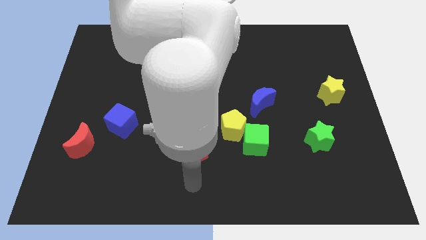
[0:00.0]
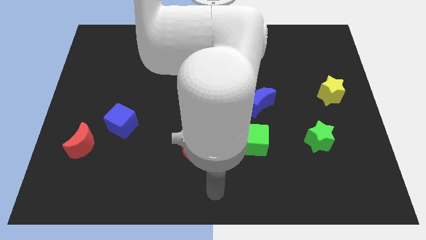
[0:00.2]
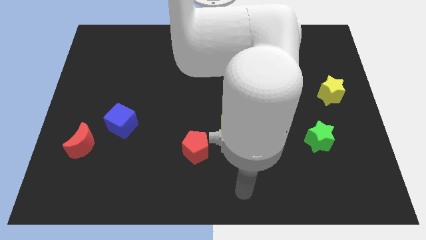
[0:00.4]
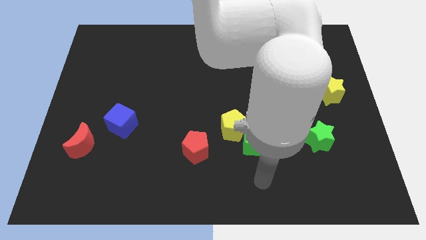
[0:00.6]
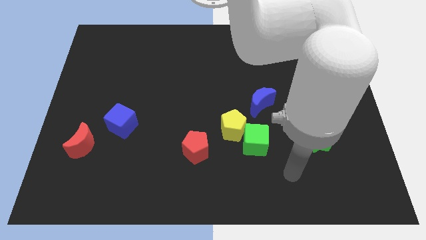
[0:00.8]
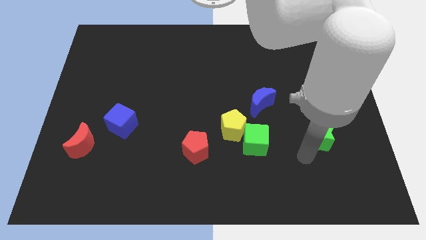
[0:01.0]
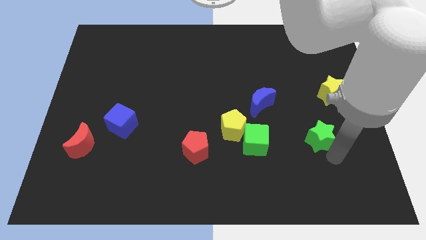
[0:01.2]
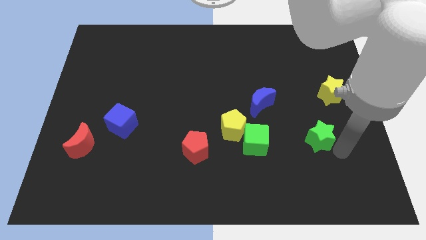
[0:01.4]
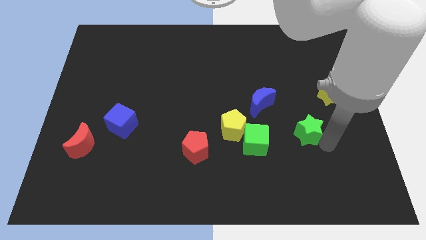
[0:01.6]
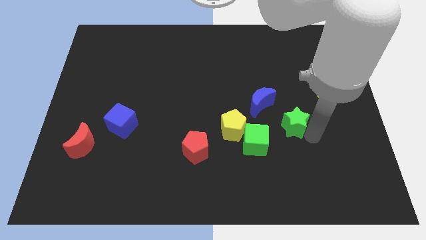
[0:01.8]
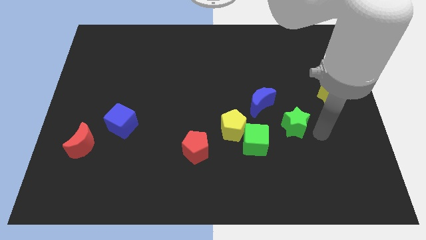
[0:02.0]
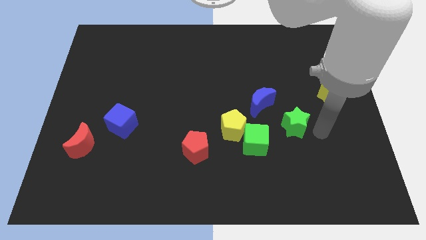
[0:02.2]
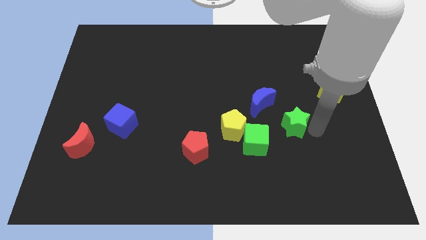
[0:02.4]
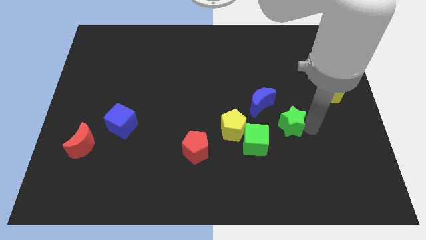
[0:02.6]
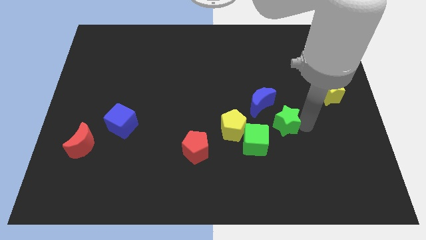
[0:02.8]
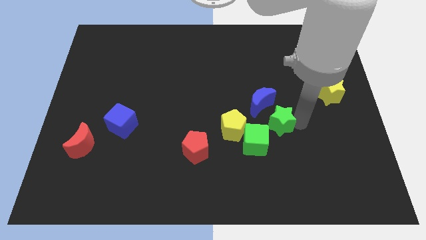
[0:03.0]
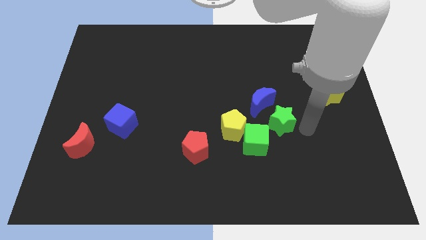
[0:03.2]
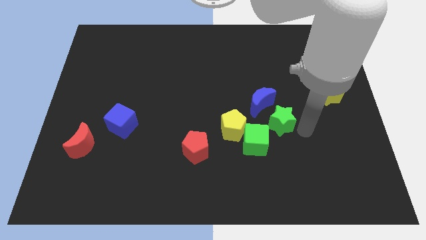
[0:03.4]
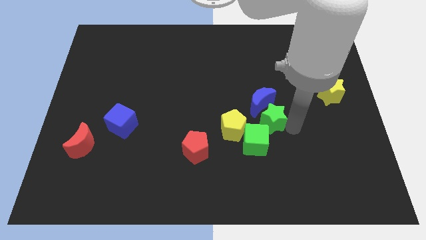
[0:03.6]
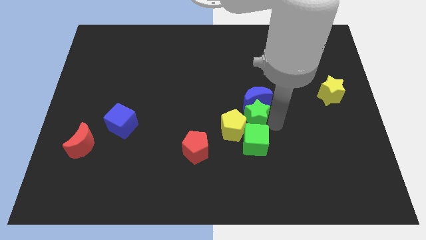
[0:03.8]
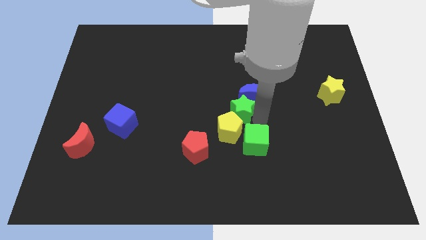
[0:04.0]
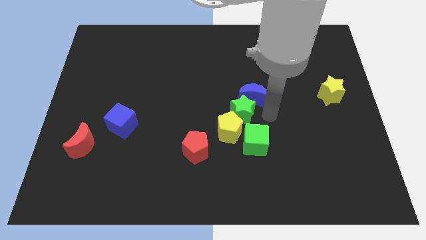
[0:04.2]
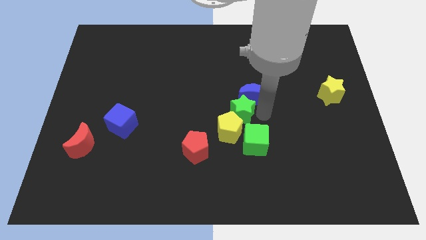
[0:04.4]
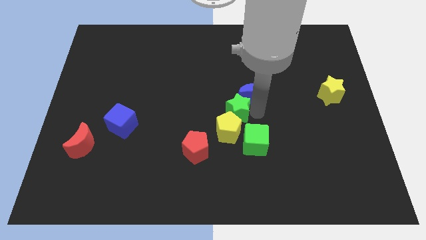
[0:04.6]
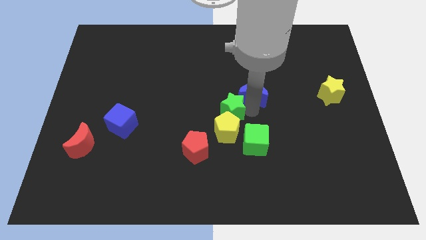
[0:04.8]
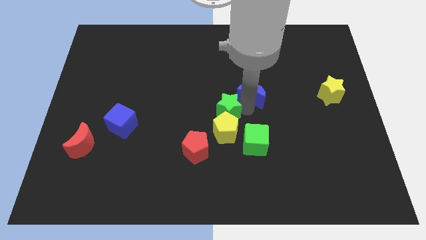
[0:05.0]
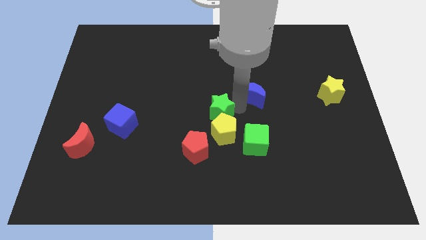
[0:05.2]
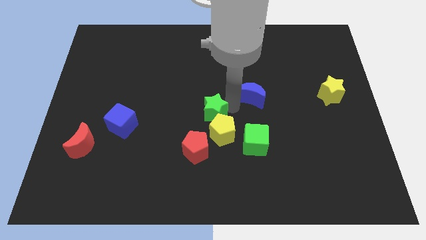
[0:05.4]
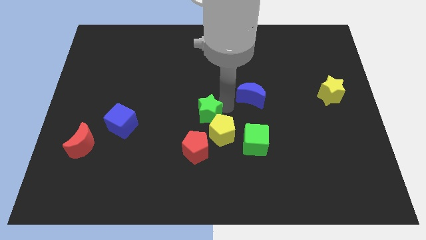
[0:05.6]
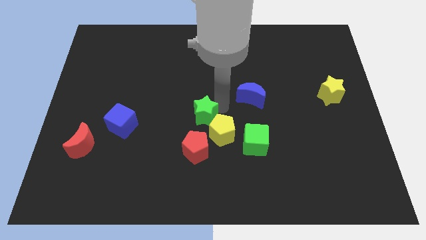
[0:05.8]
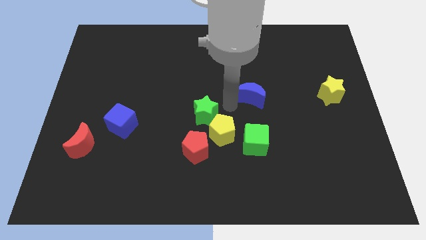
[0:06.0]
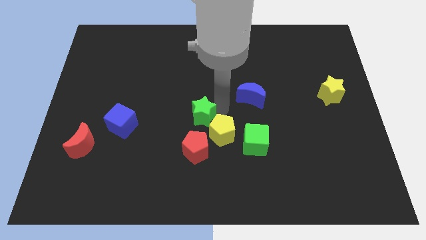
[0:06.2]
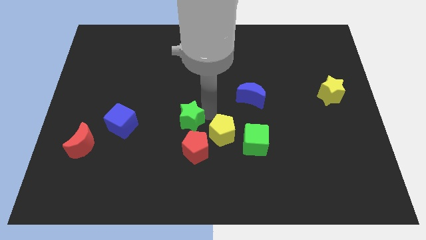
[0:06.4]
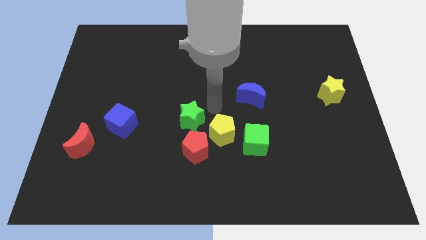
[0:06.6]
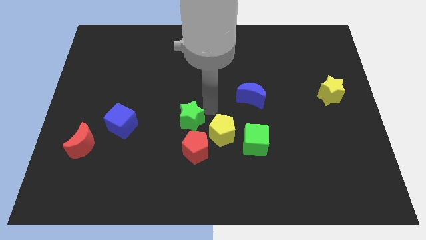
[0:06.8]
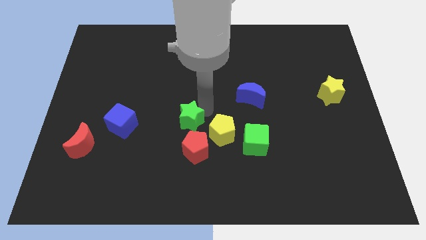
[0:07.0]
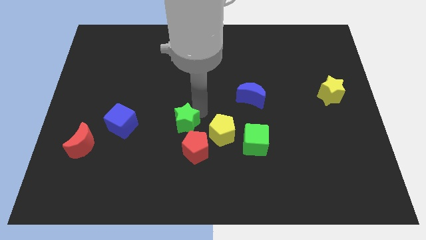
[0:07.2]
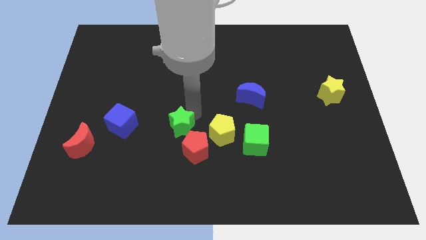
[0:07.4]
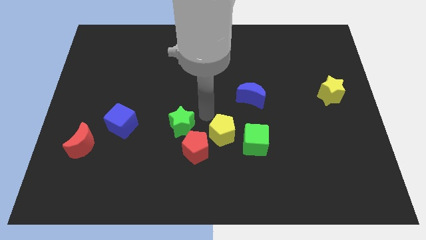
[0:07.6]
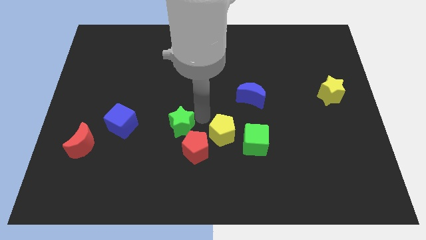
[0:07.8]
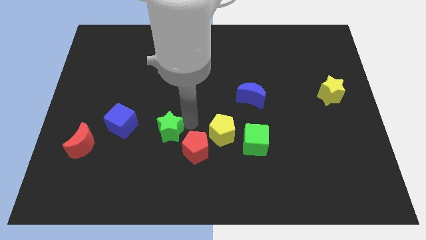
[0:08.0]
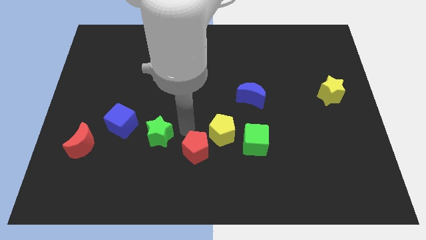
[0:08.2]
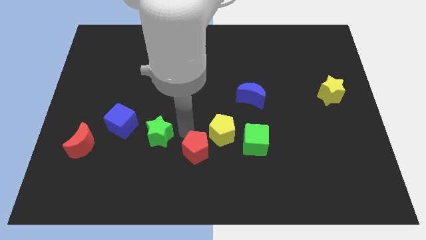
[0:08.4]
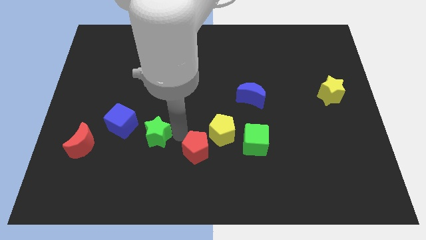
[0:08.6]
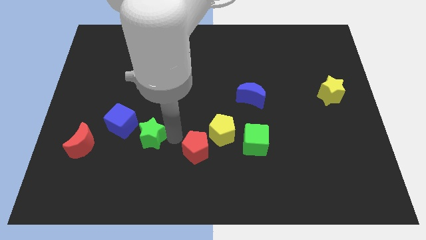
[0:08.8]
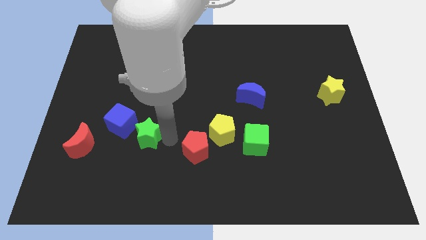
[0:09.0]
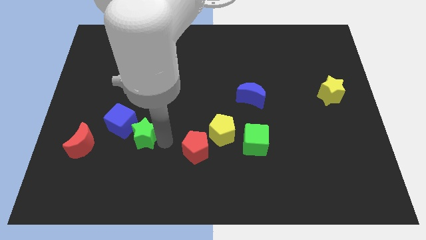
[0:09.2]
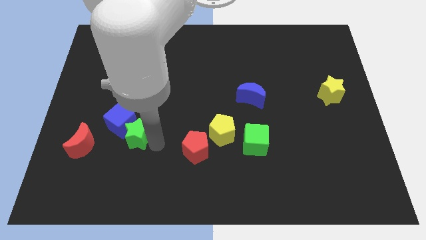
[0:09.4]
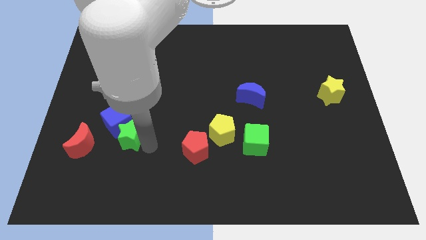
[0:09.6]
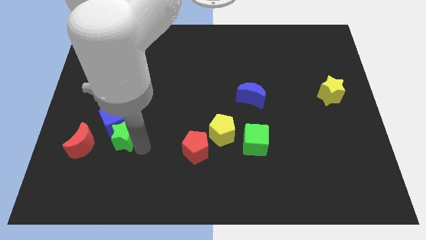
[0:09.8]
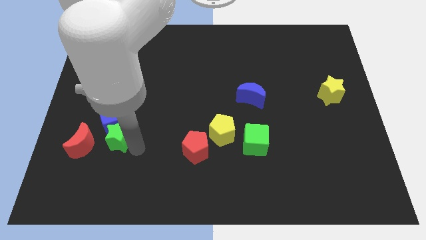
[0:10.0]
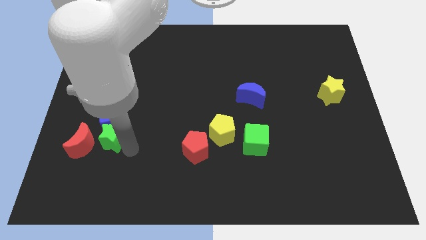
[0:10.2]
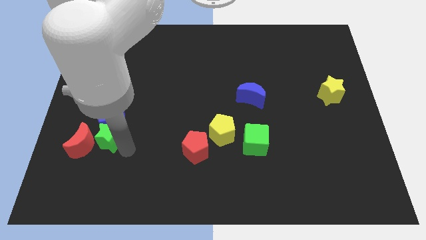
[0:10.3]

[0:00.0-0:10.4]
push the green star towards the red moon

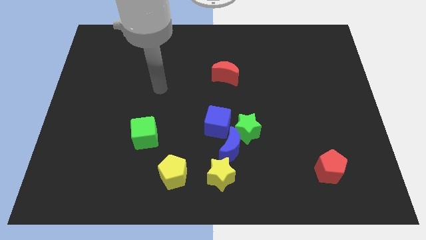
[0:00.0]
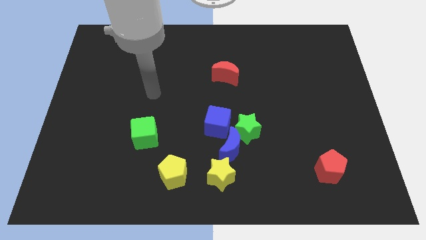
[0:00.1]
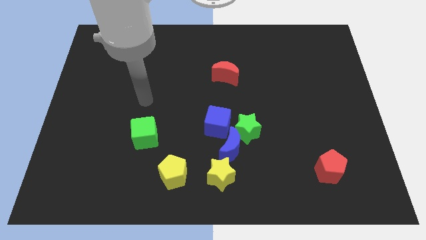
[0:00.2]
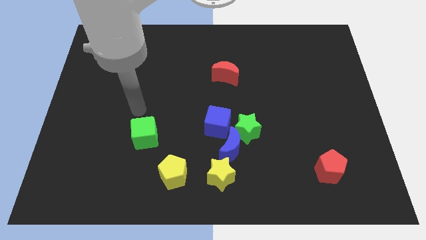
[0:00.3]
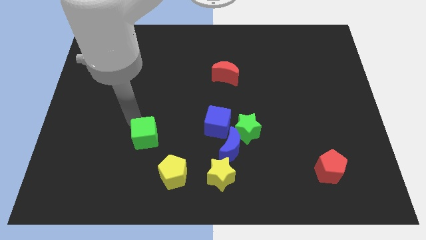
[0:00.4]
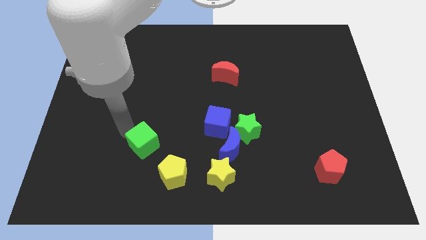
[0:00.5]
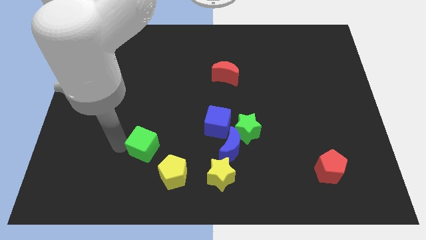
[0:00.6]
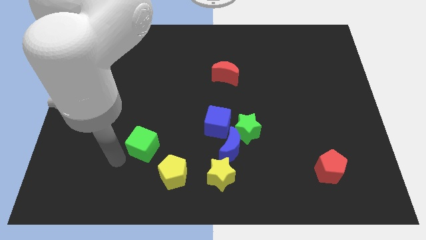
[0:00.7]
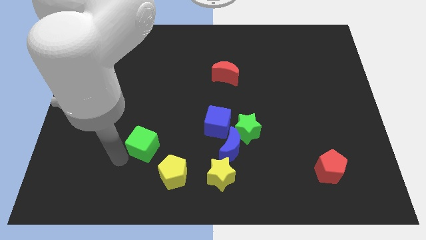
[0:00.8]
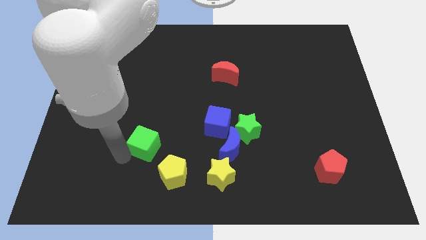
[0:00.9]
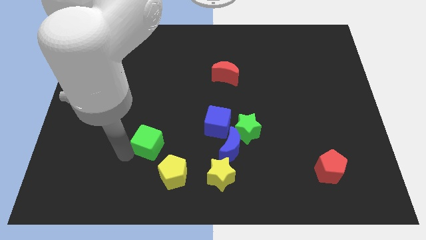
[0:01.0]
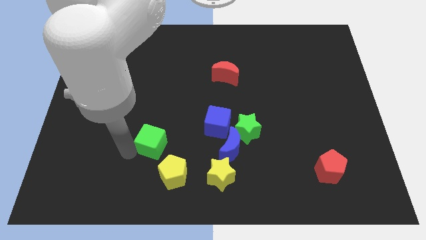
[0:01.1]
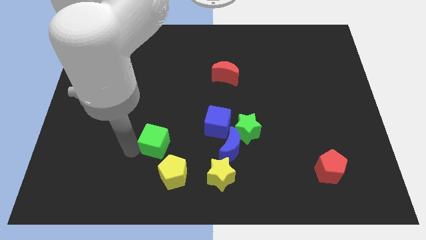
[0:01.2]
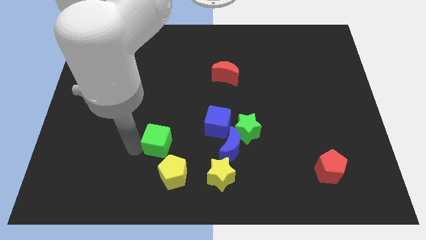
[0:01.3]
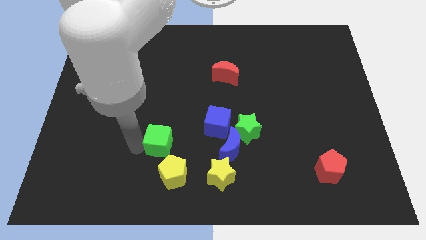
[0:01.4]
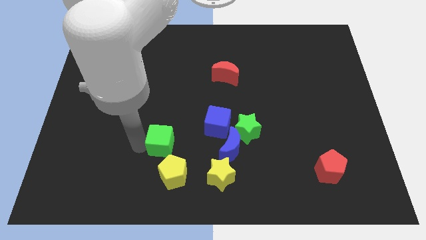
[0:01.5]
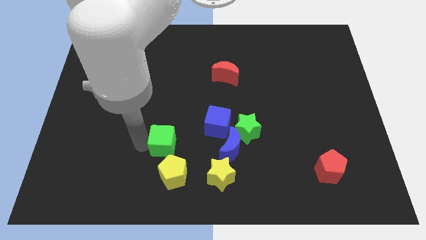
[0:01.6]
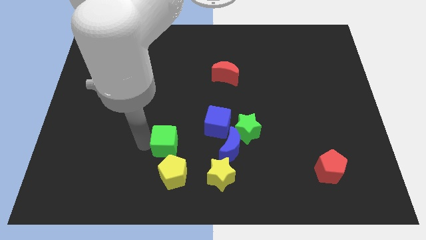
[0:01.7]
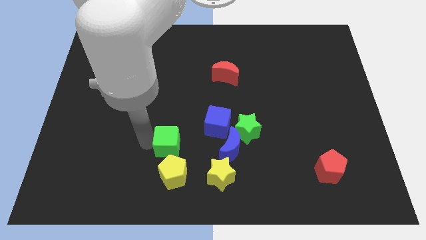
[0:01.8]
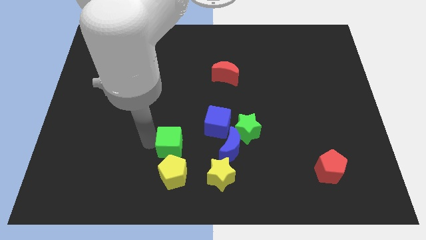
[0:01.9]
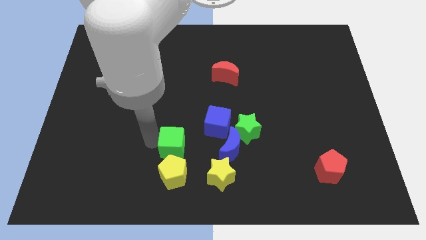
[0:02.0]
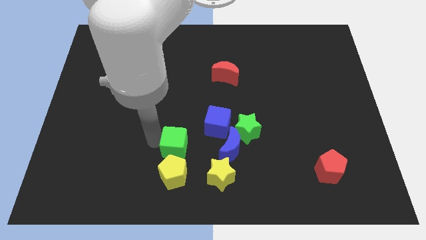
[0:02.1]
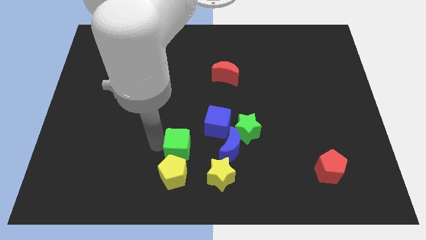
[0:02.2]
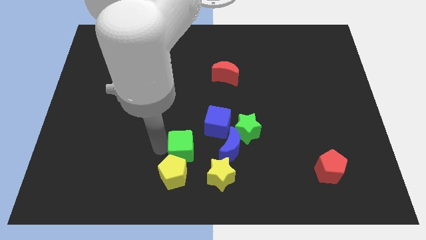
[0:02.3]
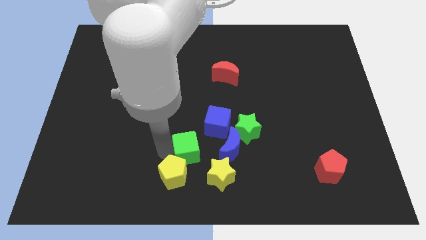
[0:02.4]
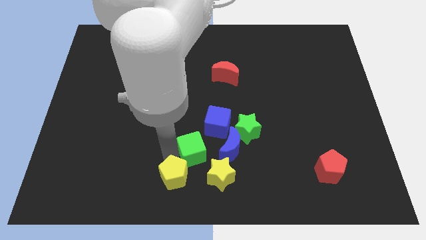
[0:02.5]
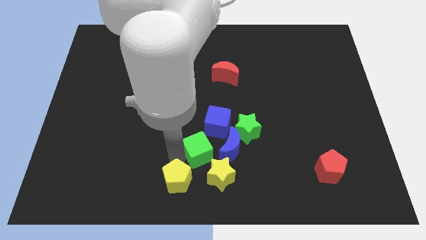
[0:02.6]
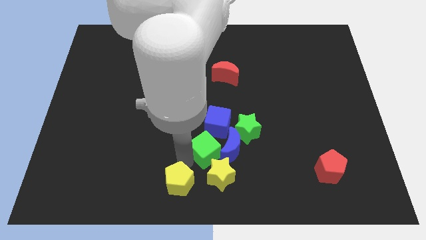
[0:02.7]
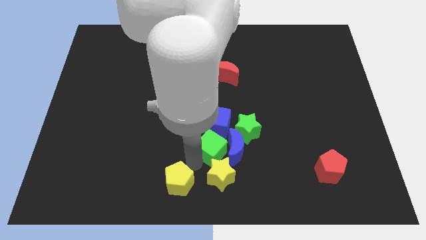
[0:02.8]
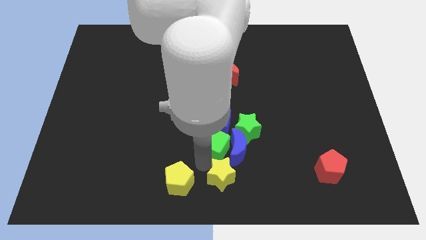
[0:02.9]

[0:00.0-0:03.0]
put the green cube close to the blue cube
